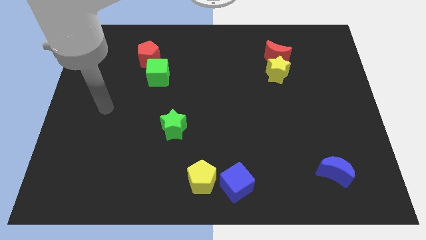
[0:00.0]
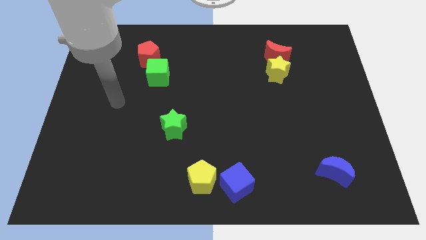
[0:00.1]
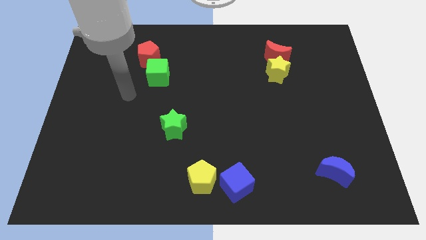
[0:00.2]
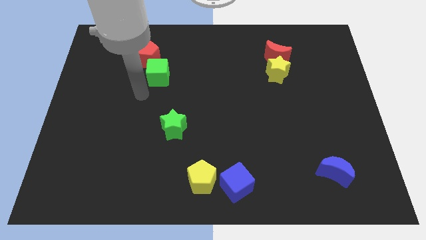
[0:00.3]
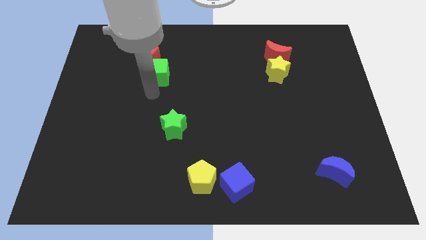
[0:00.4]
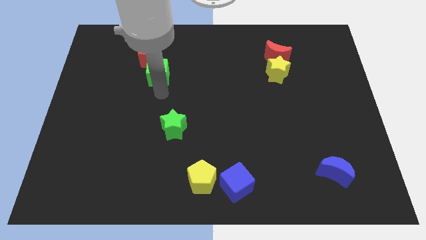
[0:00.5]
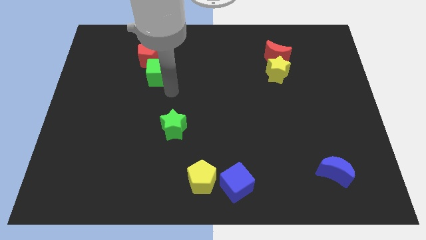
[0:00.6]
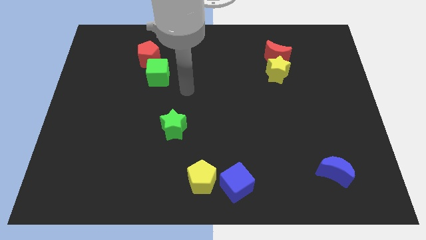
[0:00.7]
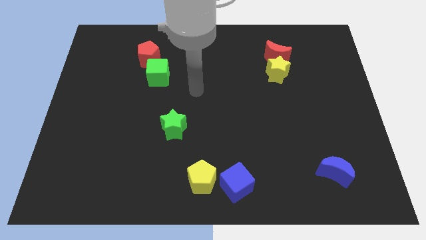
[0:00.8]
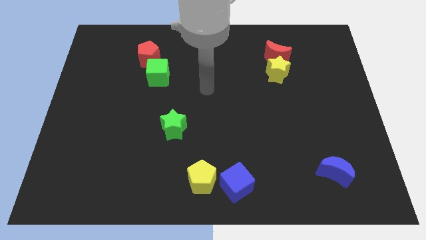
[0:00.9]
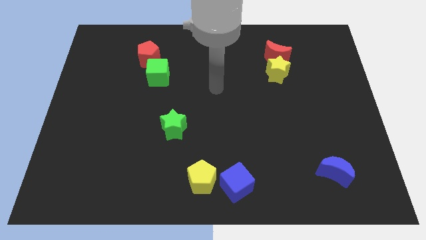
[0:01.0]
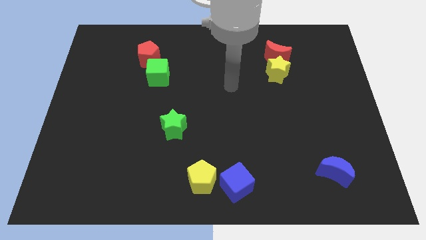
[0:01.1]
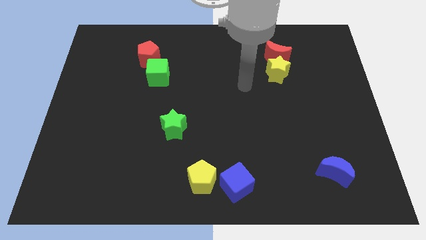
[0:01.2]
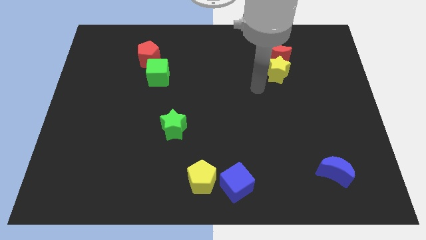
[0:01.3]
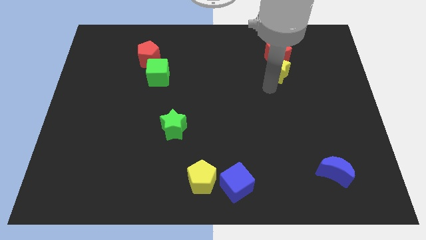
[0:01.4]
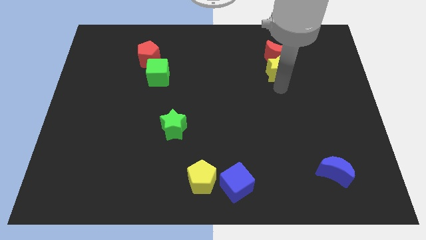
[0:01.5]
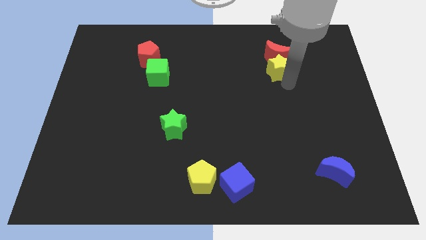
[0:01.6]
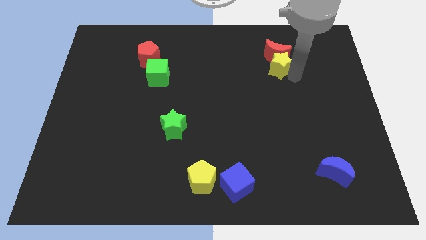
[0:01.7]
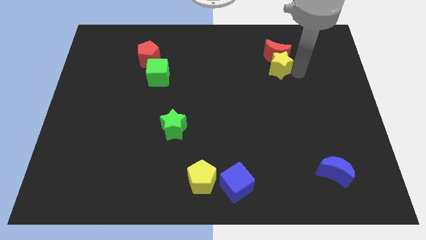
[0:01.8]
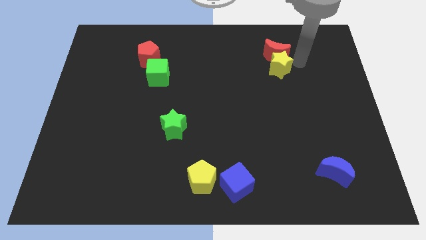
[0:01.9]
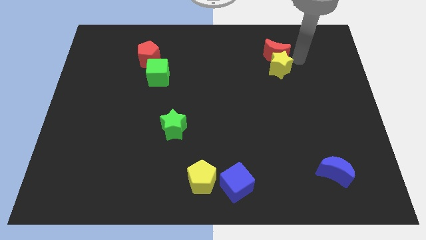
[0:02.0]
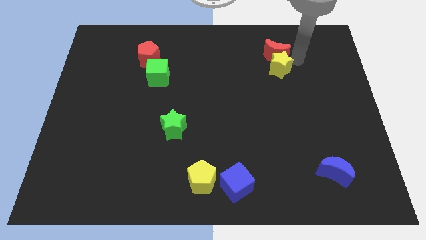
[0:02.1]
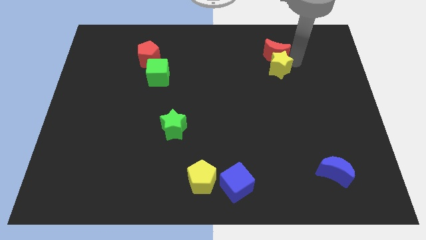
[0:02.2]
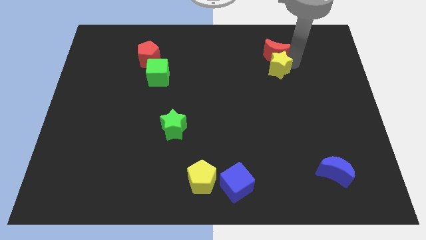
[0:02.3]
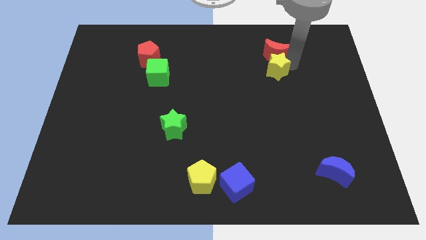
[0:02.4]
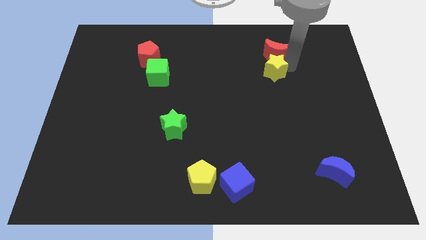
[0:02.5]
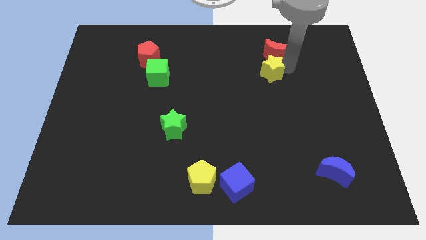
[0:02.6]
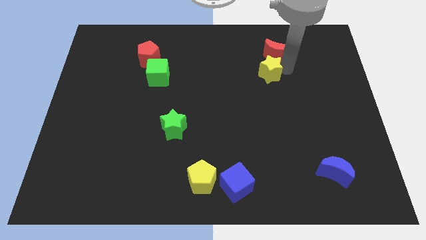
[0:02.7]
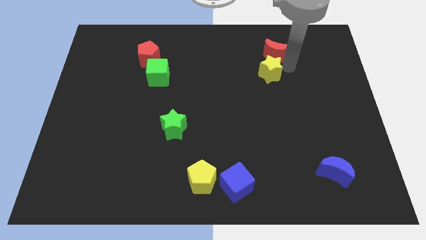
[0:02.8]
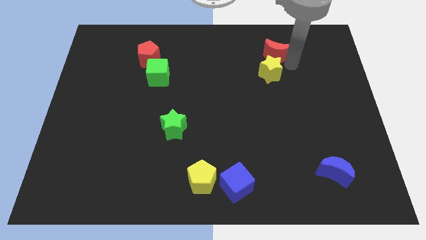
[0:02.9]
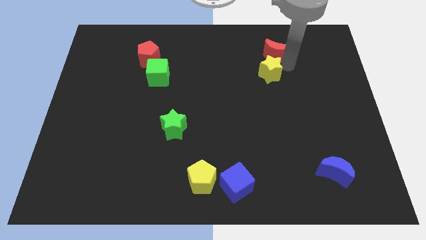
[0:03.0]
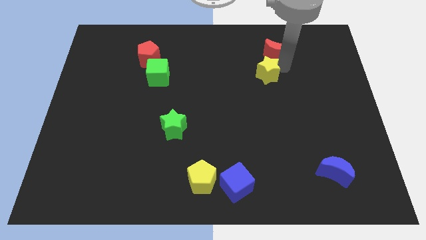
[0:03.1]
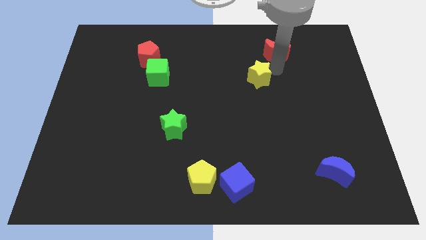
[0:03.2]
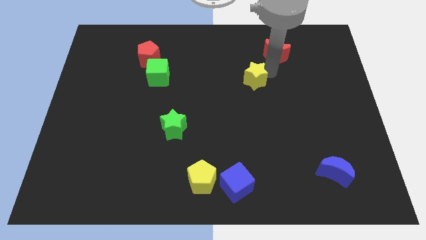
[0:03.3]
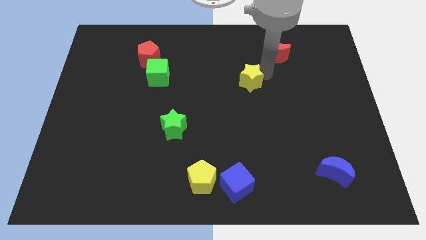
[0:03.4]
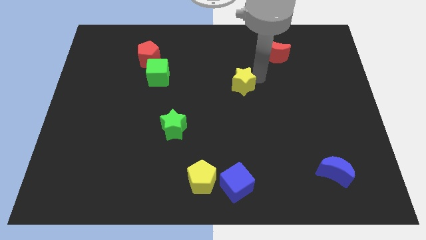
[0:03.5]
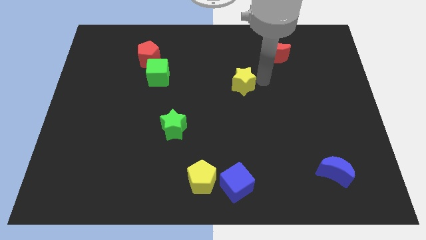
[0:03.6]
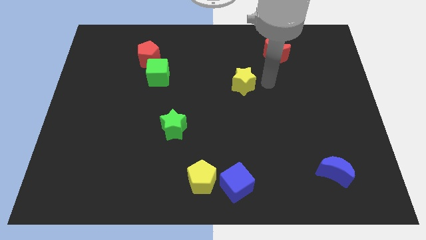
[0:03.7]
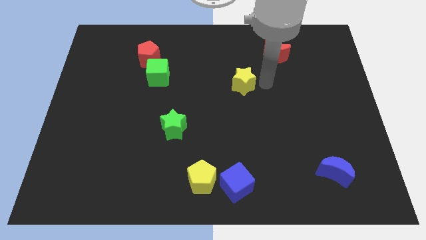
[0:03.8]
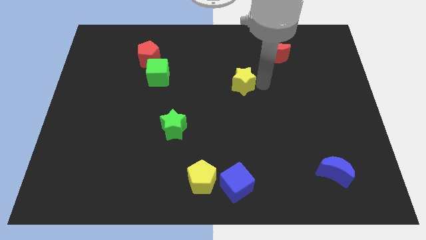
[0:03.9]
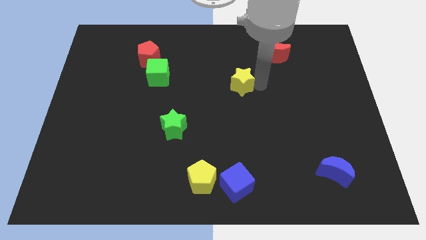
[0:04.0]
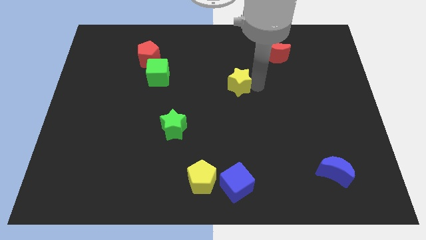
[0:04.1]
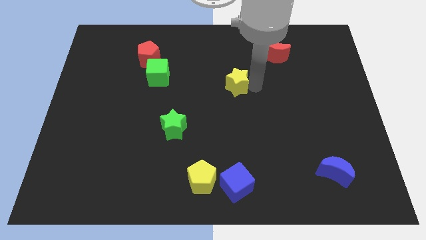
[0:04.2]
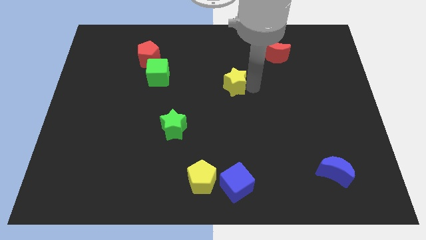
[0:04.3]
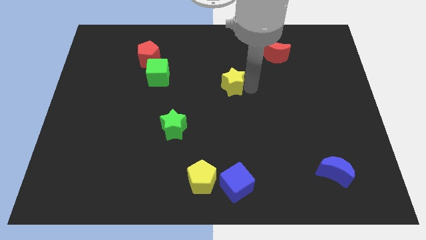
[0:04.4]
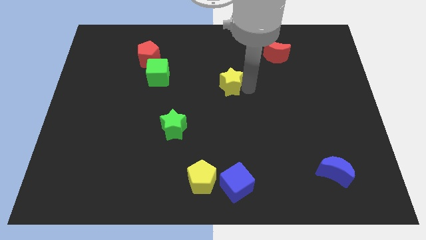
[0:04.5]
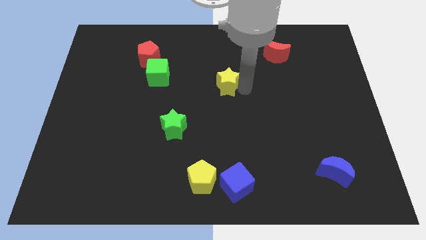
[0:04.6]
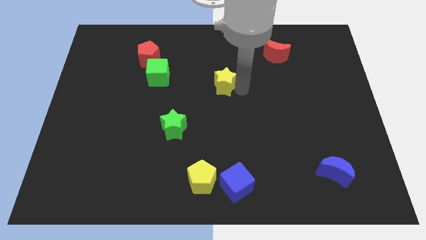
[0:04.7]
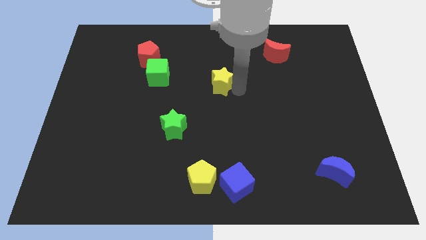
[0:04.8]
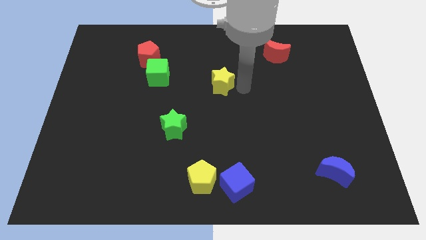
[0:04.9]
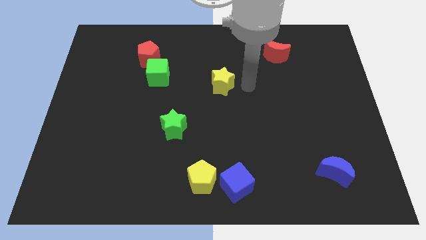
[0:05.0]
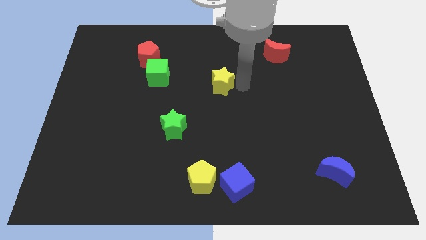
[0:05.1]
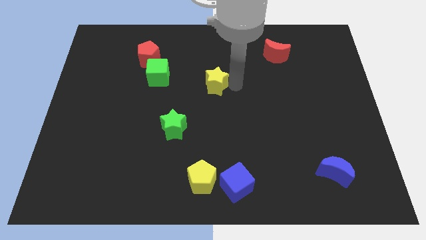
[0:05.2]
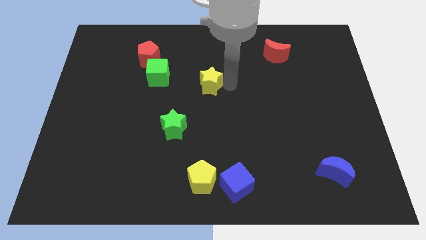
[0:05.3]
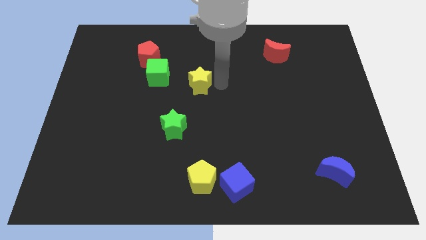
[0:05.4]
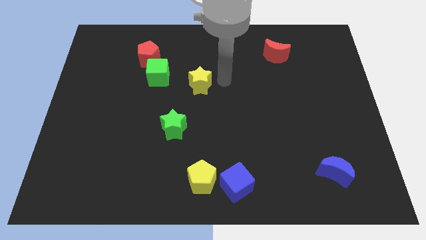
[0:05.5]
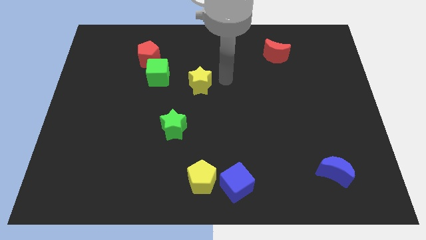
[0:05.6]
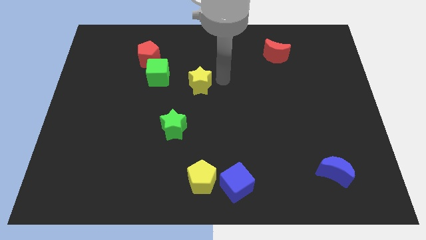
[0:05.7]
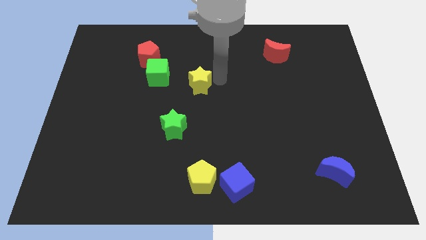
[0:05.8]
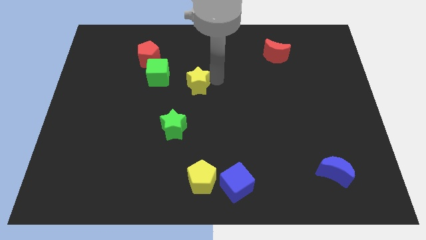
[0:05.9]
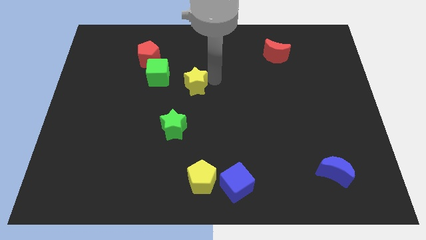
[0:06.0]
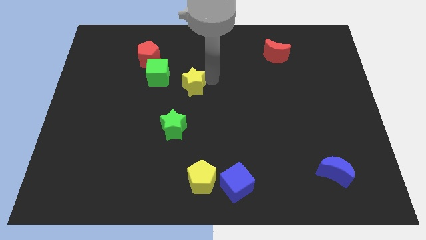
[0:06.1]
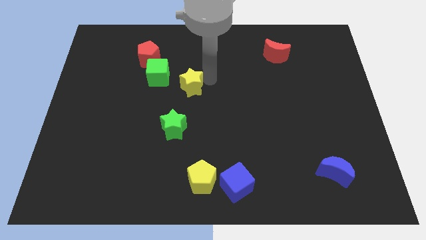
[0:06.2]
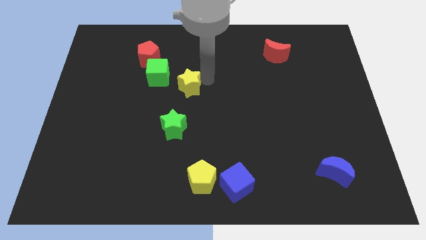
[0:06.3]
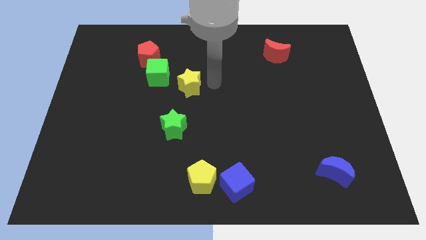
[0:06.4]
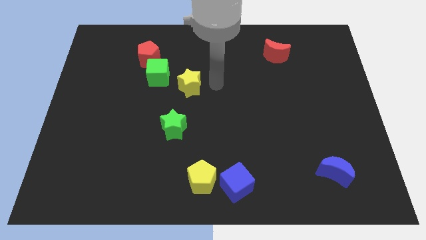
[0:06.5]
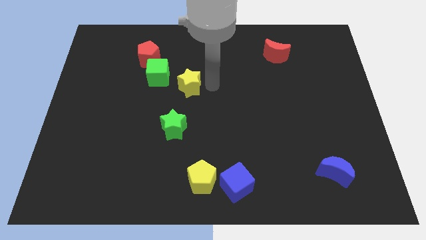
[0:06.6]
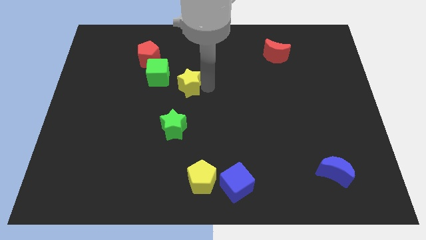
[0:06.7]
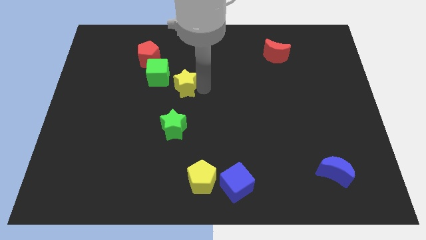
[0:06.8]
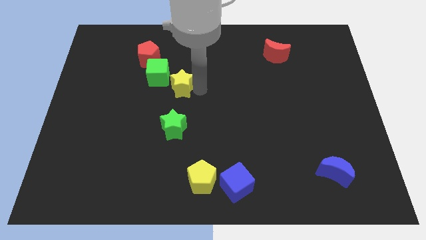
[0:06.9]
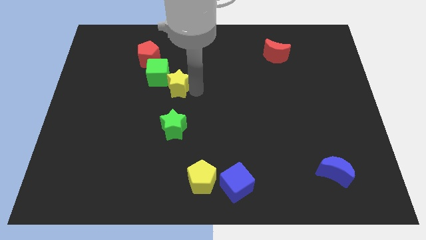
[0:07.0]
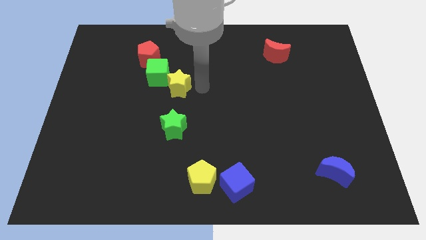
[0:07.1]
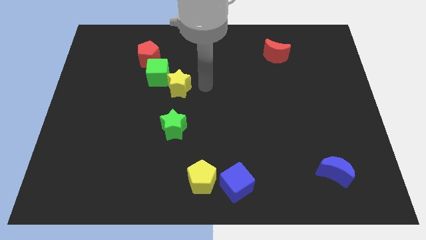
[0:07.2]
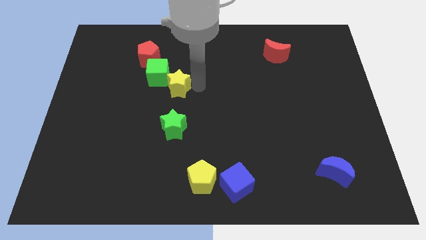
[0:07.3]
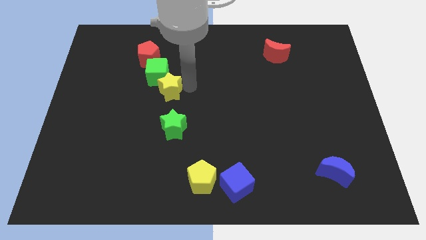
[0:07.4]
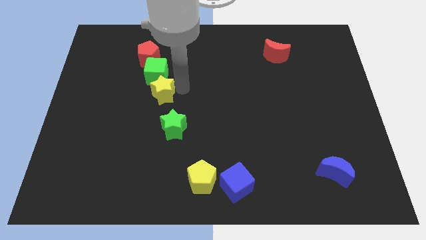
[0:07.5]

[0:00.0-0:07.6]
push the yellow star below the red pentagon
